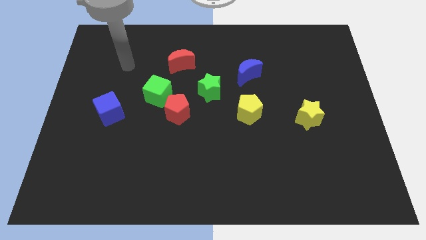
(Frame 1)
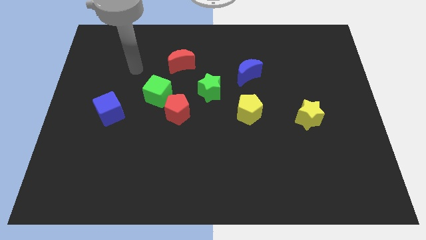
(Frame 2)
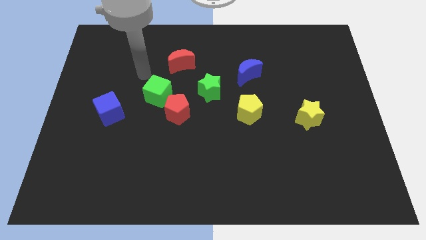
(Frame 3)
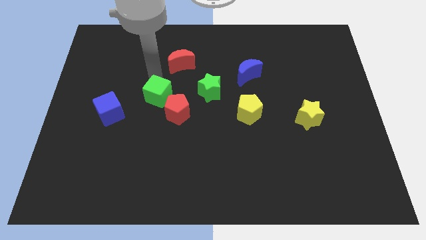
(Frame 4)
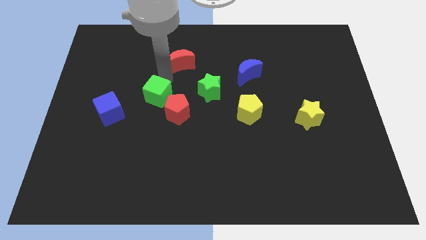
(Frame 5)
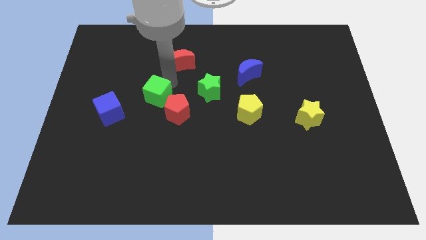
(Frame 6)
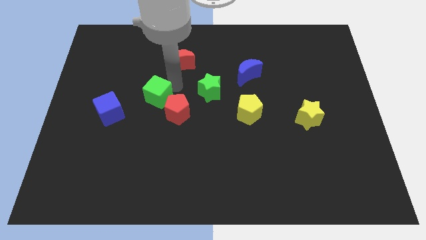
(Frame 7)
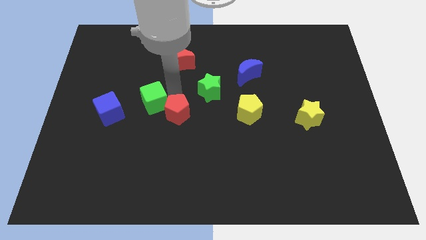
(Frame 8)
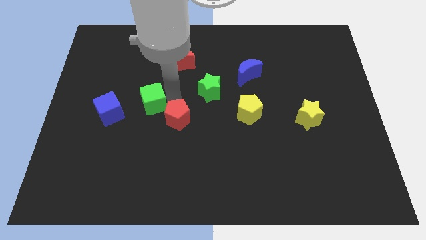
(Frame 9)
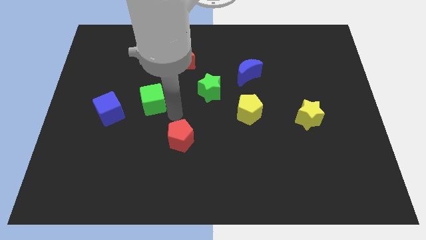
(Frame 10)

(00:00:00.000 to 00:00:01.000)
move the green cube away from the red pentagon

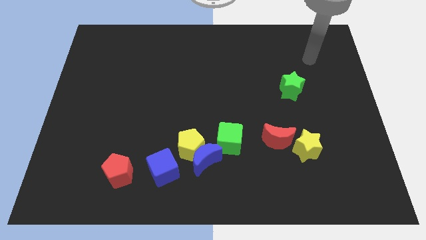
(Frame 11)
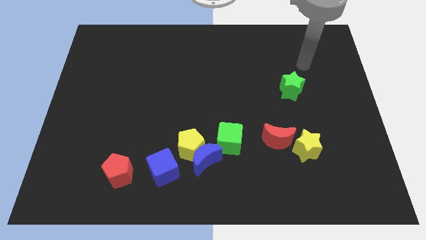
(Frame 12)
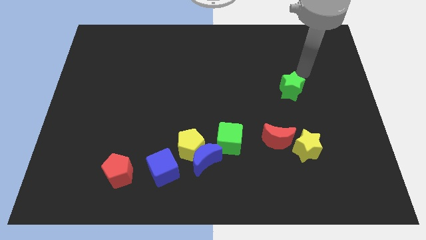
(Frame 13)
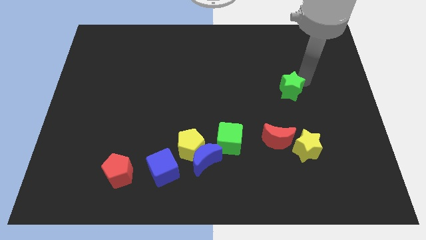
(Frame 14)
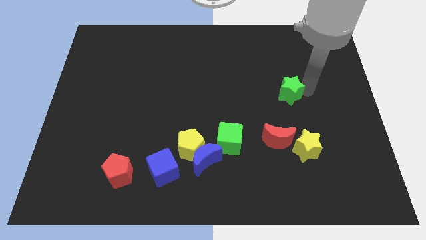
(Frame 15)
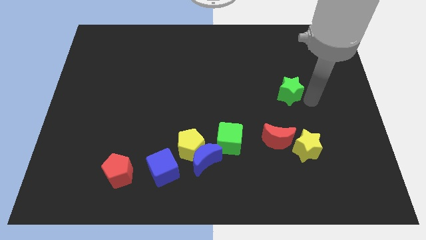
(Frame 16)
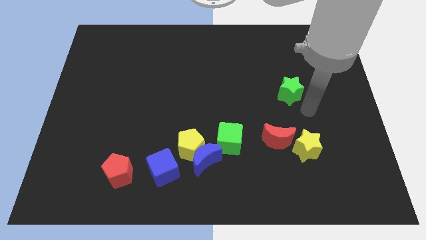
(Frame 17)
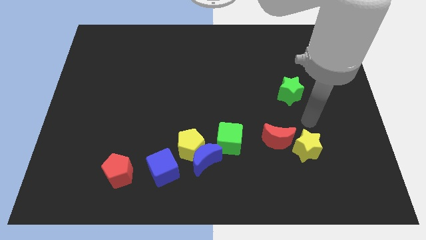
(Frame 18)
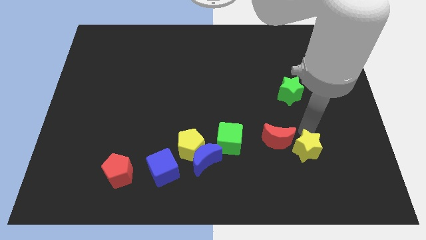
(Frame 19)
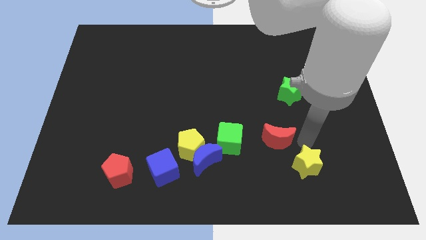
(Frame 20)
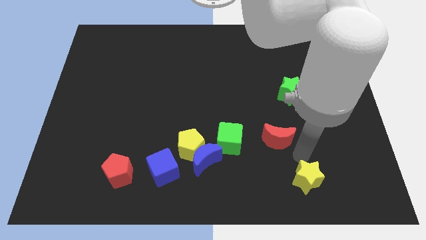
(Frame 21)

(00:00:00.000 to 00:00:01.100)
separate the red moon from the yellow star

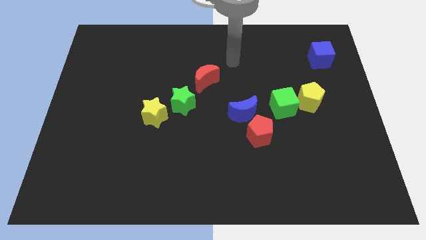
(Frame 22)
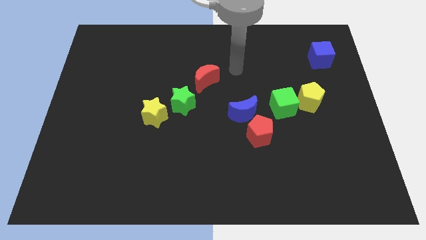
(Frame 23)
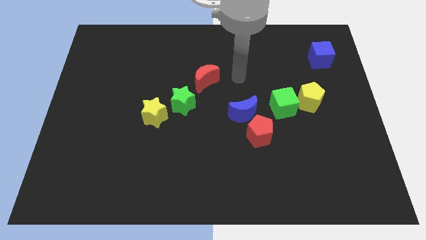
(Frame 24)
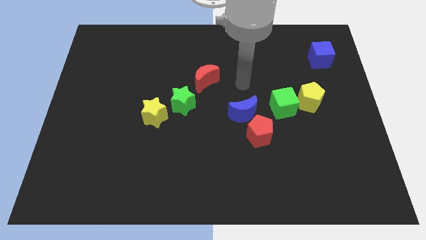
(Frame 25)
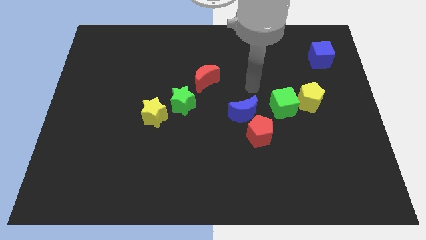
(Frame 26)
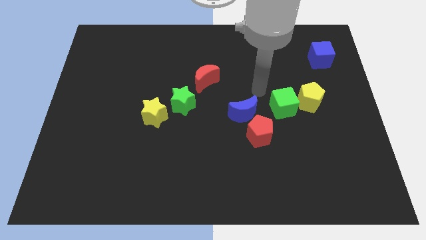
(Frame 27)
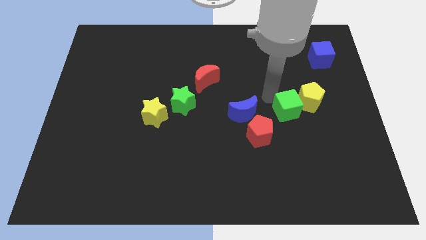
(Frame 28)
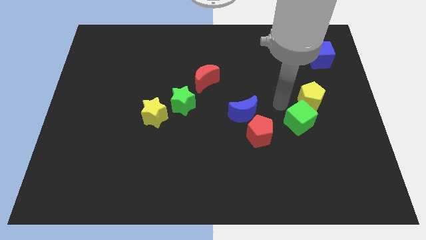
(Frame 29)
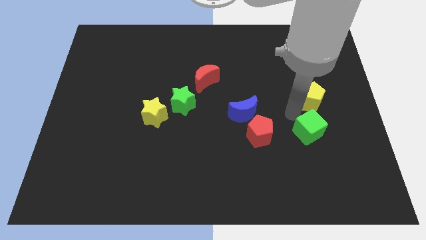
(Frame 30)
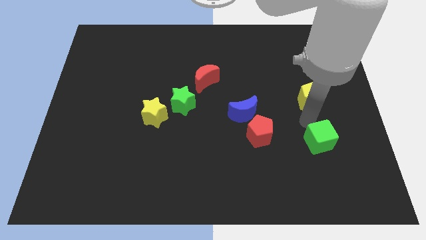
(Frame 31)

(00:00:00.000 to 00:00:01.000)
separate the yellow pentagon from the green cube

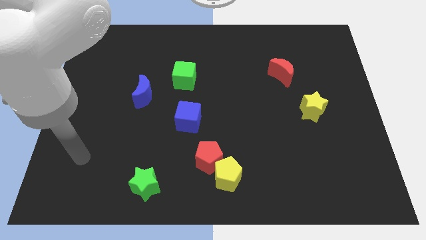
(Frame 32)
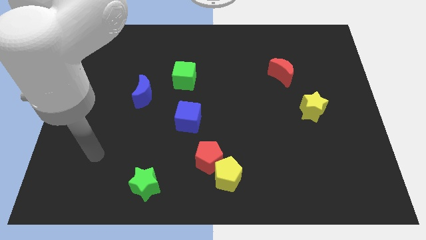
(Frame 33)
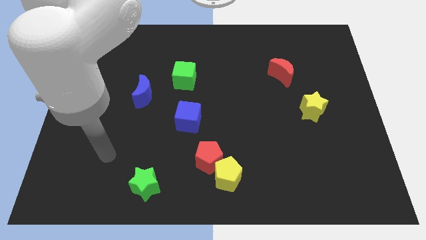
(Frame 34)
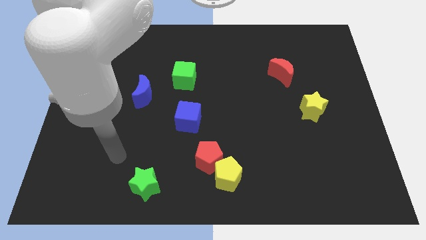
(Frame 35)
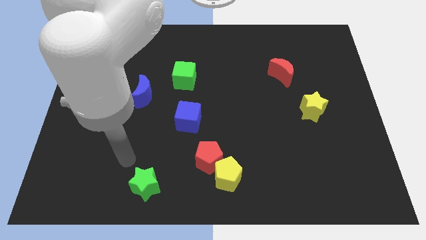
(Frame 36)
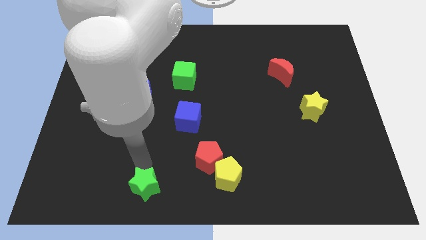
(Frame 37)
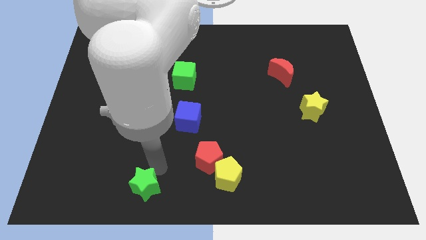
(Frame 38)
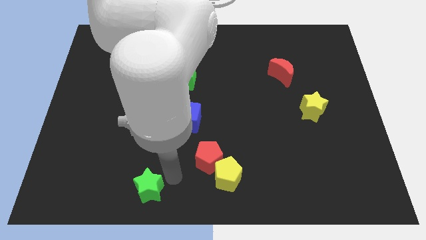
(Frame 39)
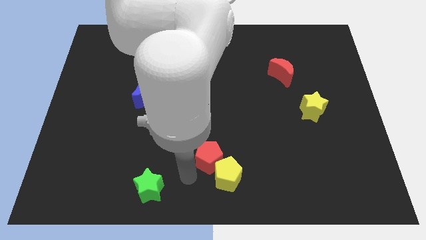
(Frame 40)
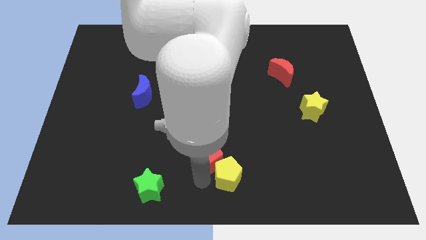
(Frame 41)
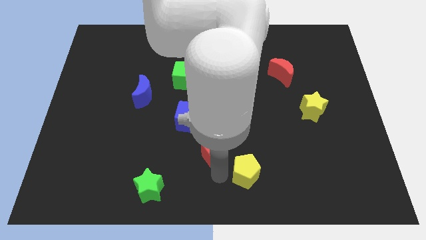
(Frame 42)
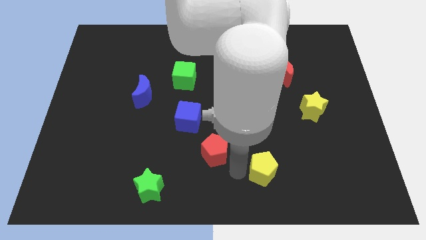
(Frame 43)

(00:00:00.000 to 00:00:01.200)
pull the red pentagon apart from the yellow pentagon

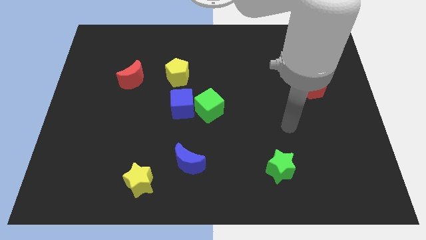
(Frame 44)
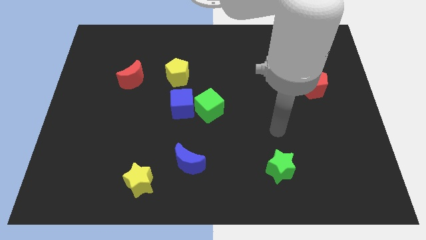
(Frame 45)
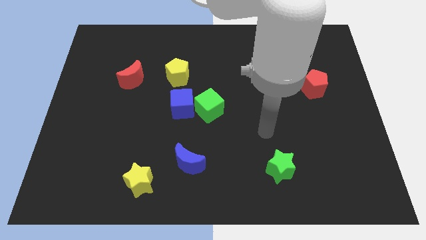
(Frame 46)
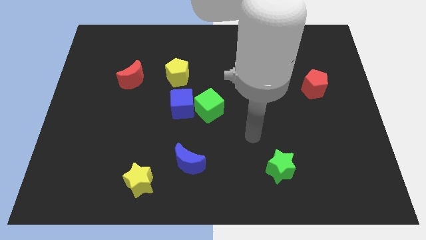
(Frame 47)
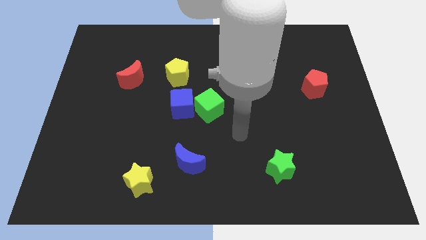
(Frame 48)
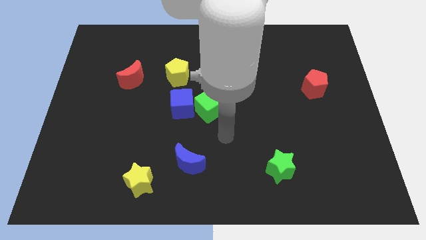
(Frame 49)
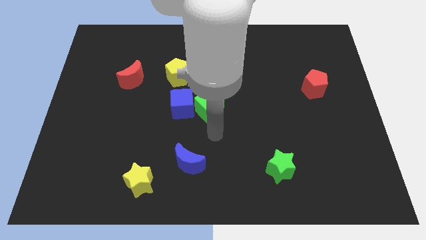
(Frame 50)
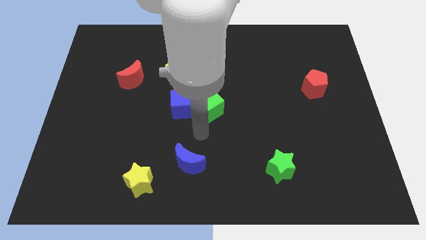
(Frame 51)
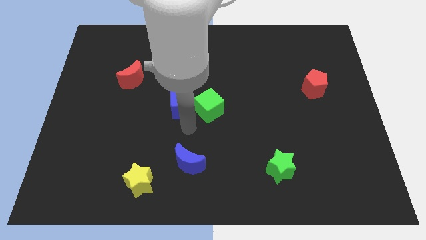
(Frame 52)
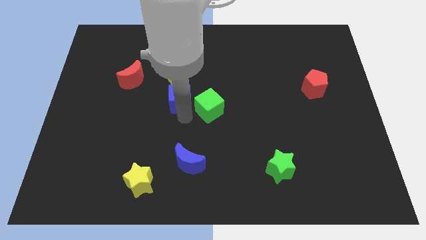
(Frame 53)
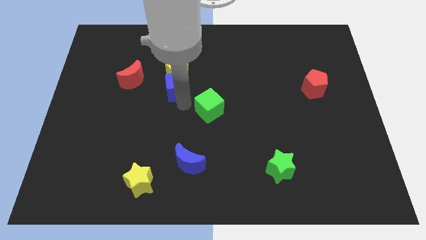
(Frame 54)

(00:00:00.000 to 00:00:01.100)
separate the green cube from the blue cube

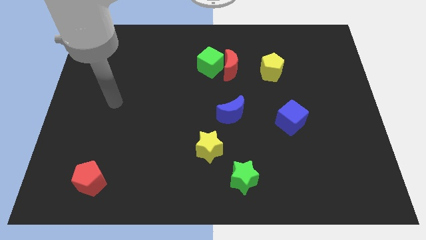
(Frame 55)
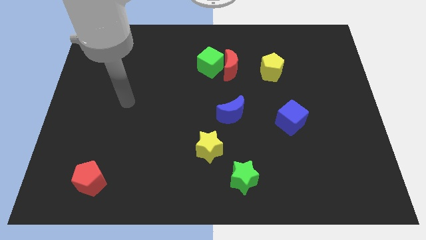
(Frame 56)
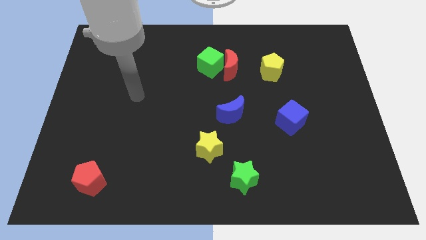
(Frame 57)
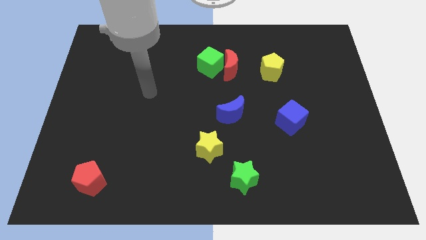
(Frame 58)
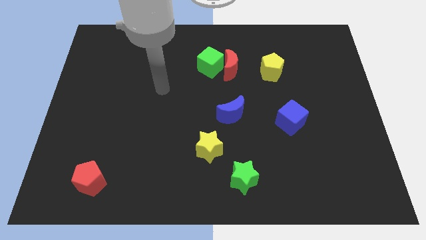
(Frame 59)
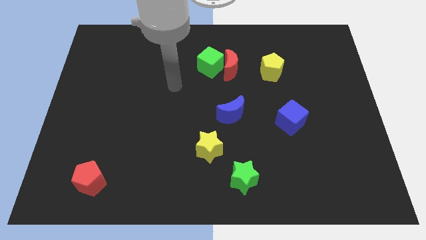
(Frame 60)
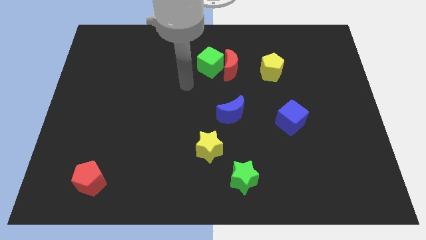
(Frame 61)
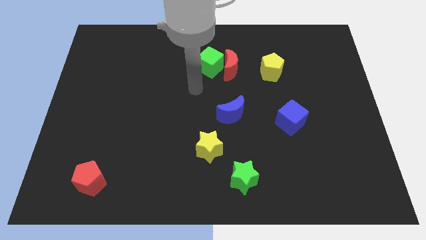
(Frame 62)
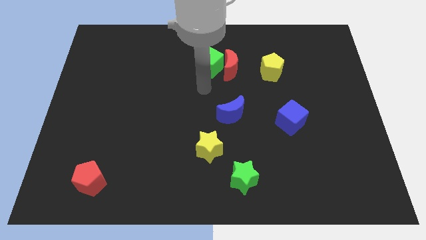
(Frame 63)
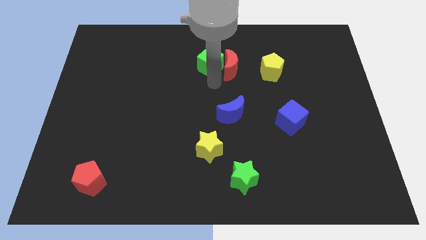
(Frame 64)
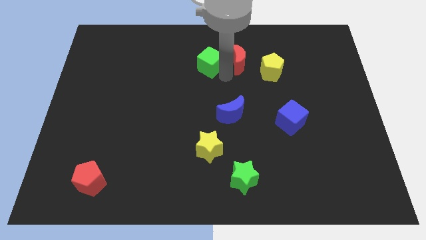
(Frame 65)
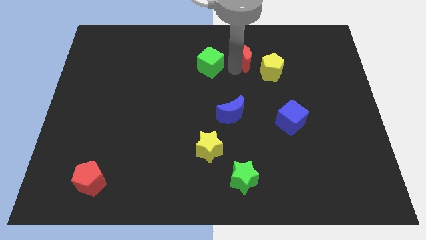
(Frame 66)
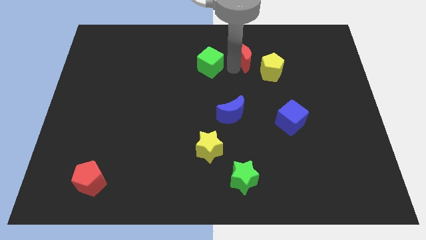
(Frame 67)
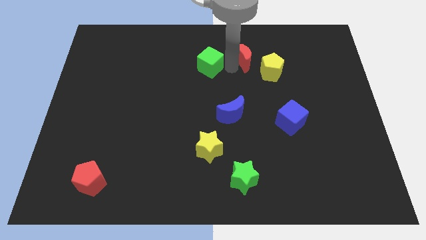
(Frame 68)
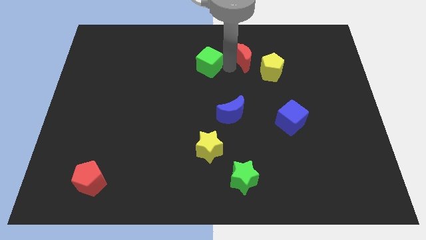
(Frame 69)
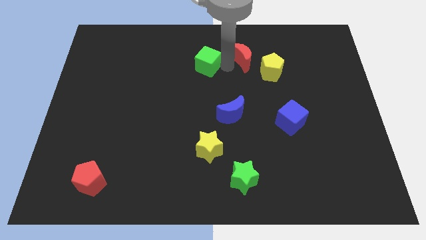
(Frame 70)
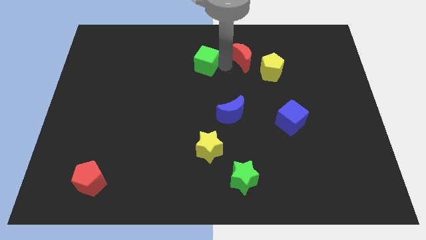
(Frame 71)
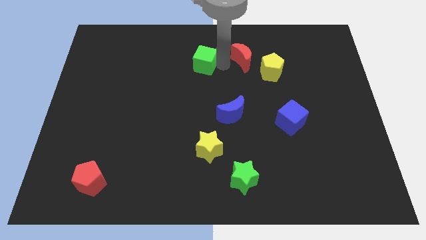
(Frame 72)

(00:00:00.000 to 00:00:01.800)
pull the green cube apart from the red moon

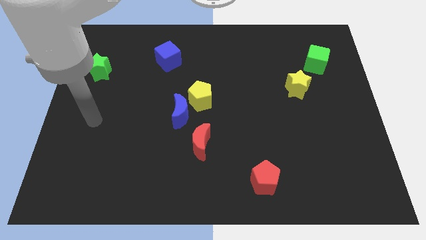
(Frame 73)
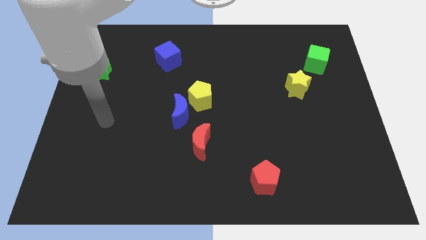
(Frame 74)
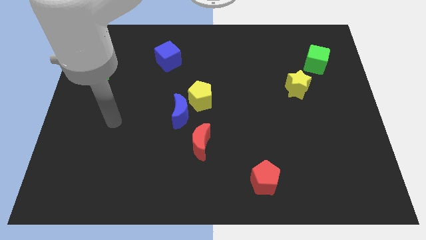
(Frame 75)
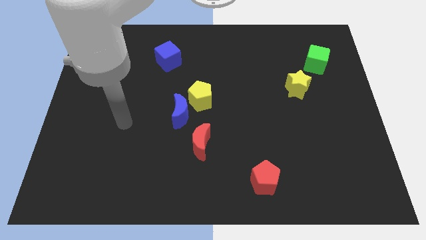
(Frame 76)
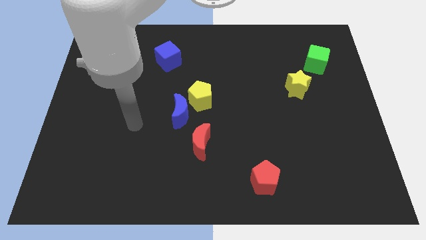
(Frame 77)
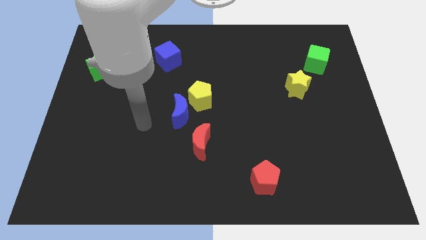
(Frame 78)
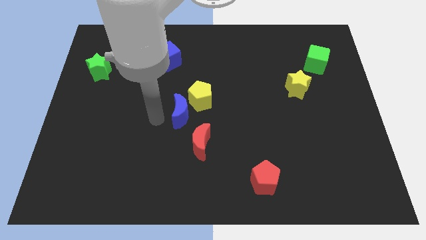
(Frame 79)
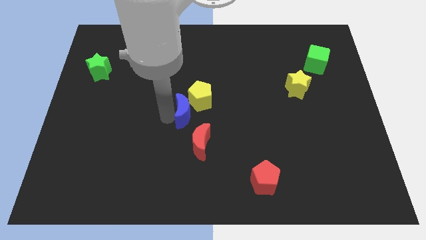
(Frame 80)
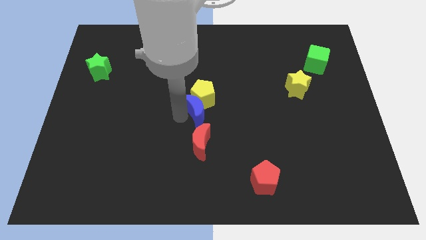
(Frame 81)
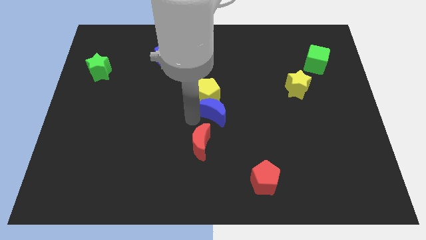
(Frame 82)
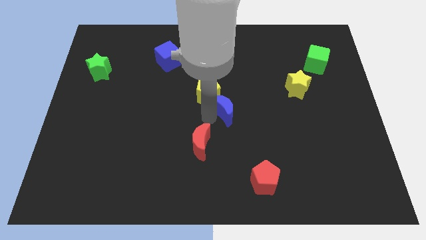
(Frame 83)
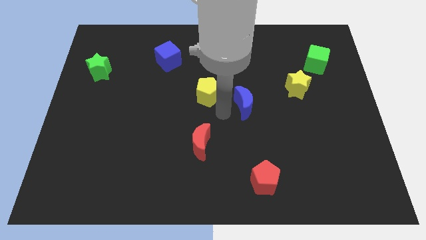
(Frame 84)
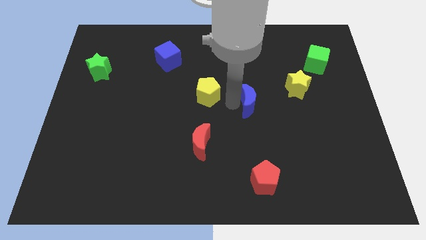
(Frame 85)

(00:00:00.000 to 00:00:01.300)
move the yellow pentagon away from the blue moon

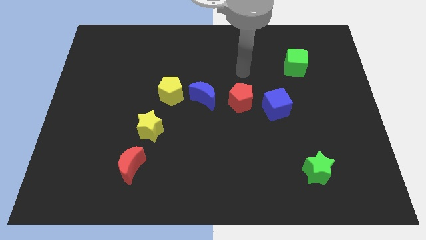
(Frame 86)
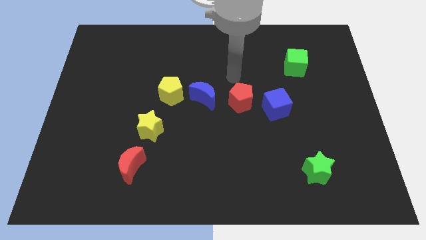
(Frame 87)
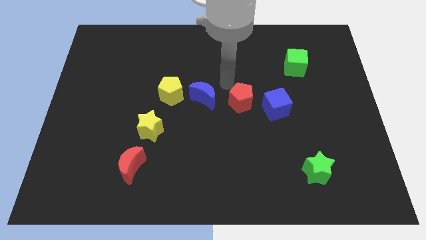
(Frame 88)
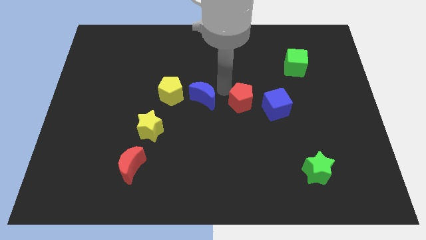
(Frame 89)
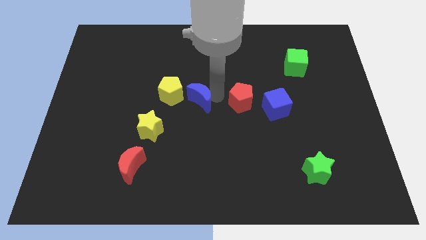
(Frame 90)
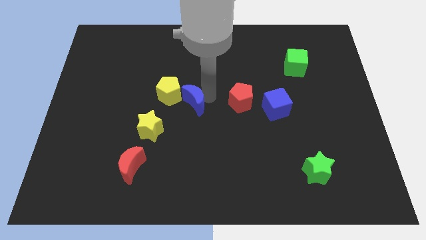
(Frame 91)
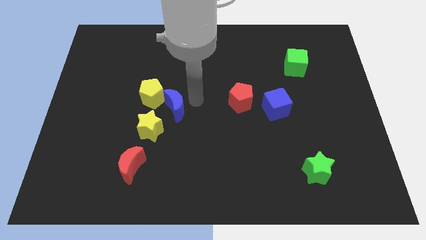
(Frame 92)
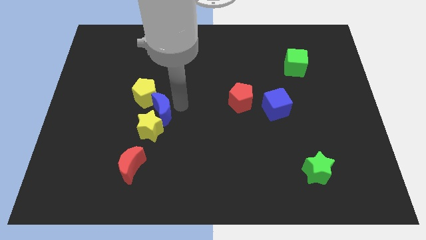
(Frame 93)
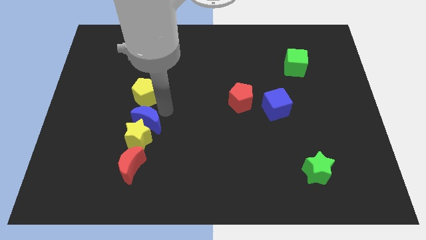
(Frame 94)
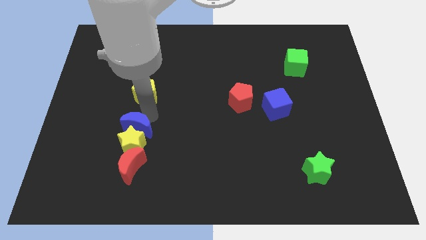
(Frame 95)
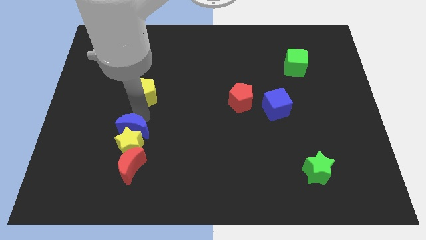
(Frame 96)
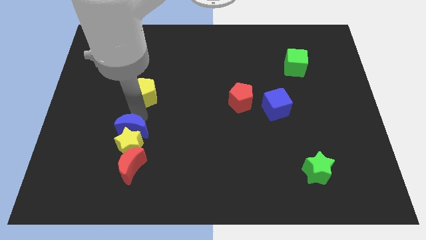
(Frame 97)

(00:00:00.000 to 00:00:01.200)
separate the yellow pentagon from the blue moon
